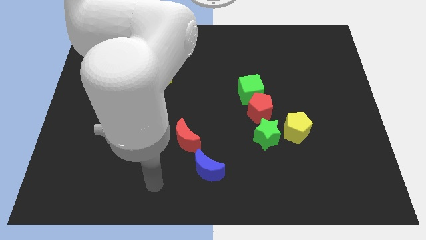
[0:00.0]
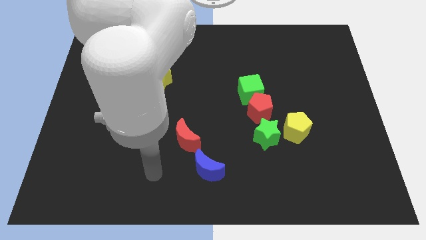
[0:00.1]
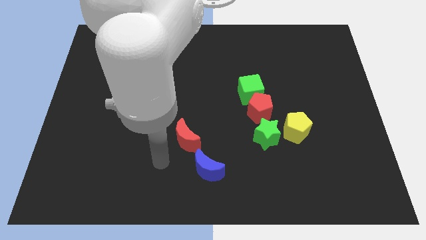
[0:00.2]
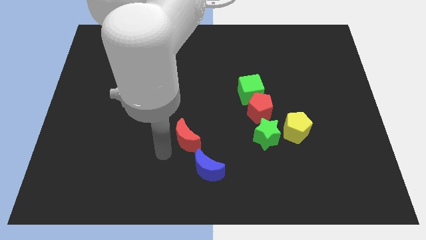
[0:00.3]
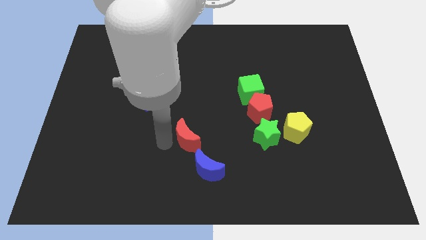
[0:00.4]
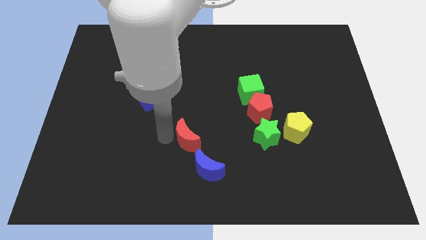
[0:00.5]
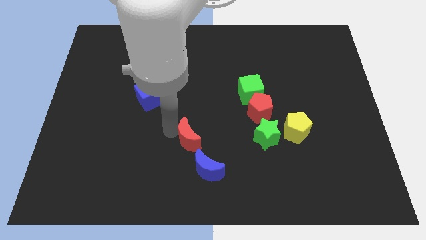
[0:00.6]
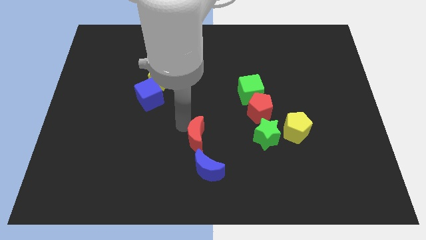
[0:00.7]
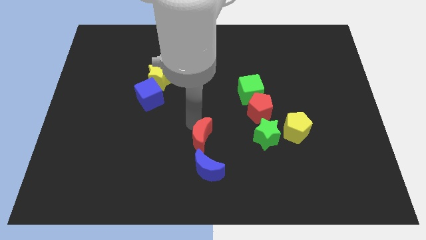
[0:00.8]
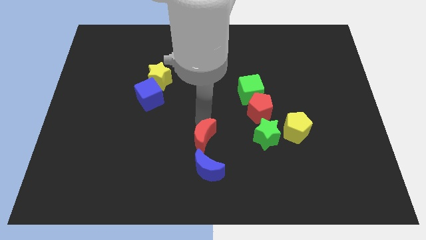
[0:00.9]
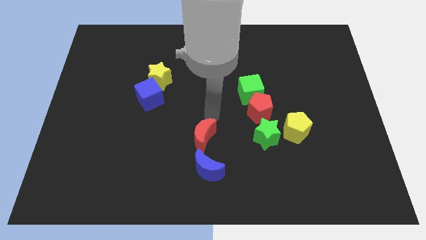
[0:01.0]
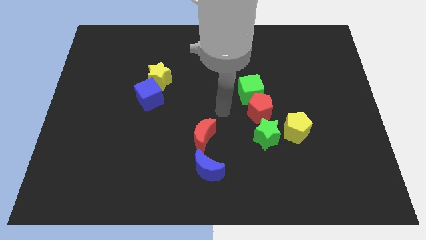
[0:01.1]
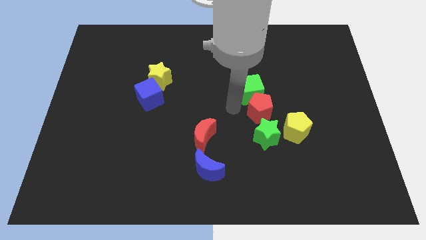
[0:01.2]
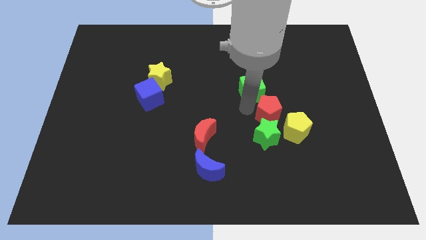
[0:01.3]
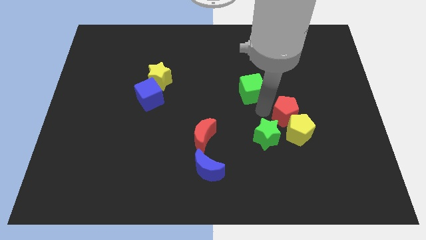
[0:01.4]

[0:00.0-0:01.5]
separate the green cube from the red pentagon

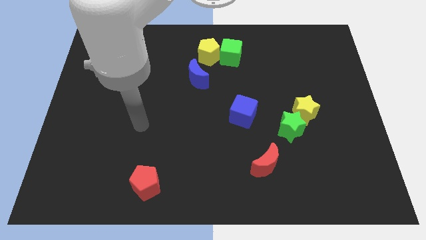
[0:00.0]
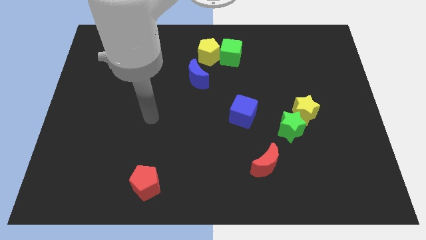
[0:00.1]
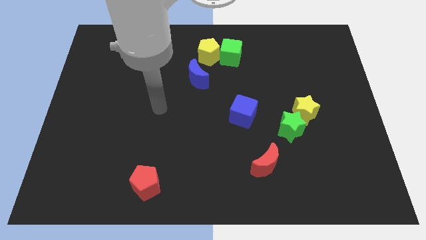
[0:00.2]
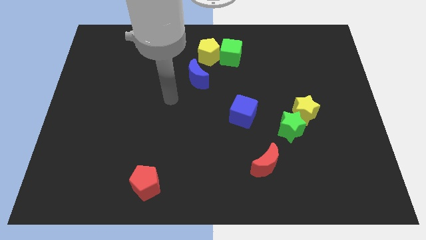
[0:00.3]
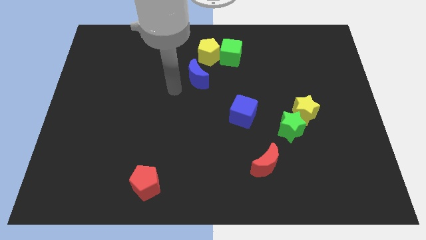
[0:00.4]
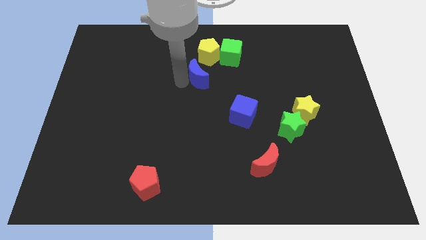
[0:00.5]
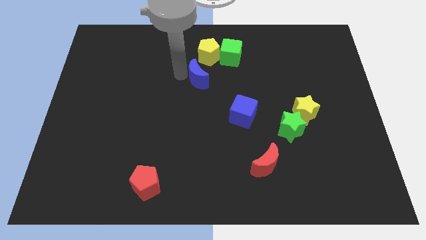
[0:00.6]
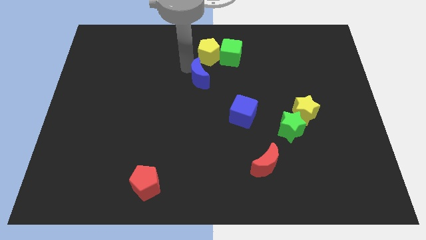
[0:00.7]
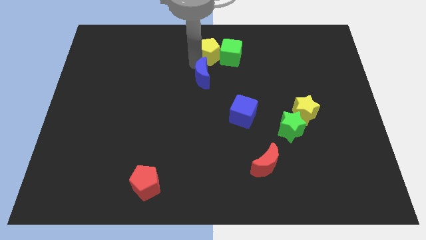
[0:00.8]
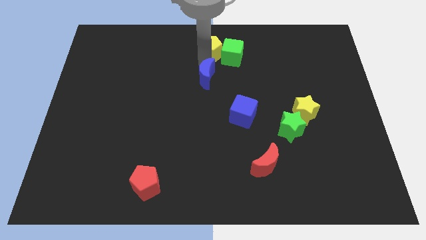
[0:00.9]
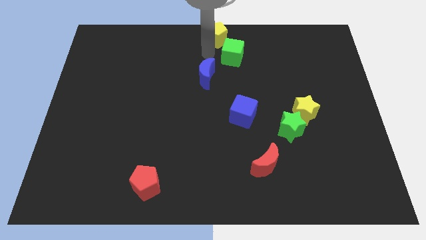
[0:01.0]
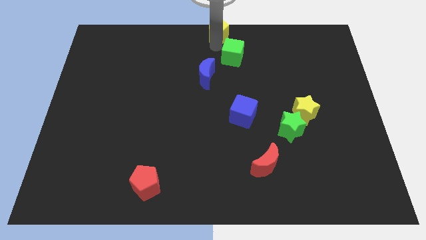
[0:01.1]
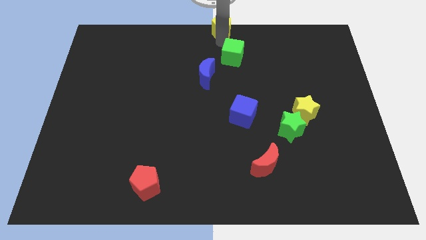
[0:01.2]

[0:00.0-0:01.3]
pull the green cube apart from the yellow pentagon

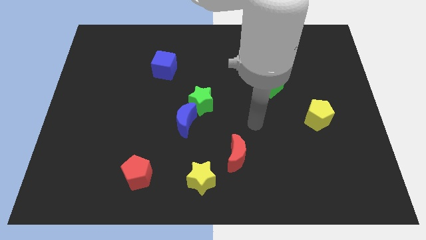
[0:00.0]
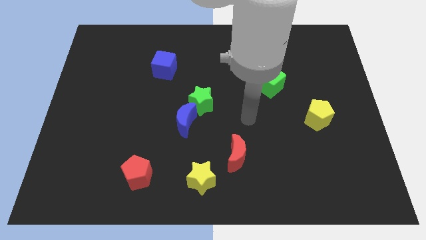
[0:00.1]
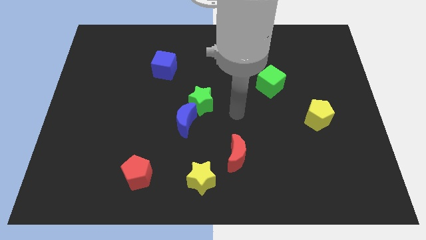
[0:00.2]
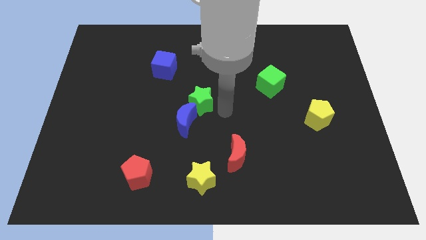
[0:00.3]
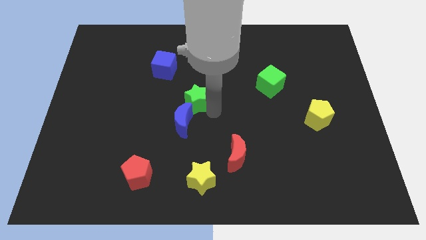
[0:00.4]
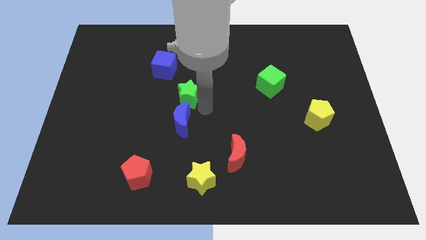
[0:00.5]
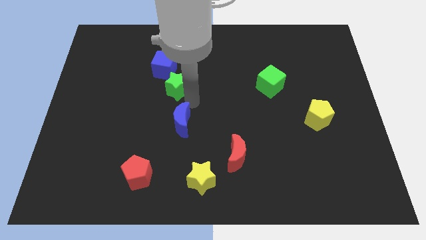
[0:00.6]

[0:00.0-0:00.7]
move the blue moon away from the green star

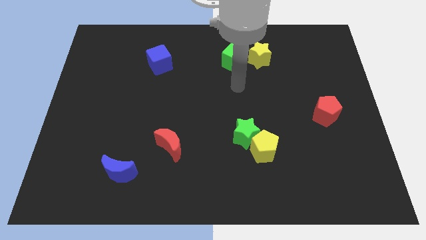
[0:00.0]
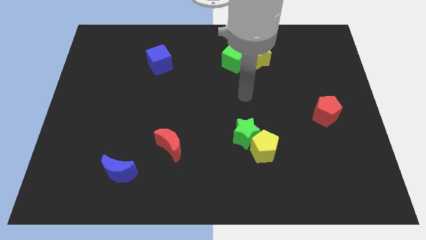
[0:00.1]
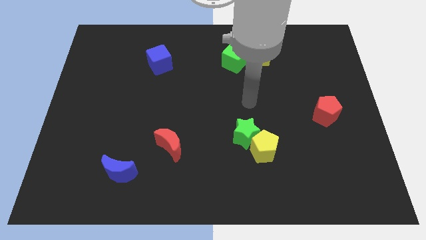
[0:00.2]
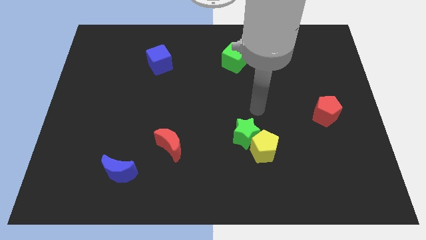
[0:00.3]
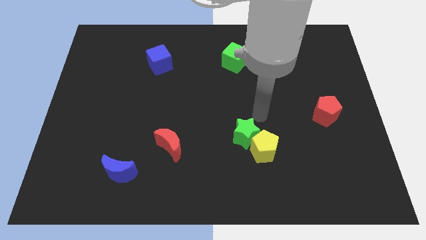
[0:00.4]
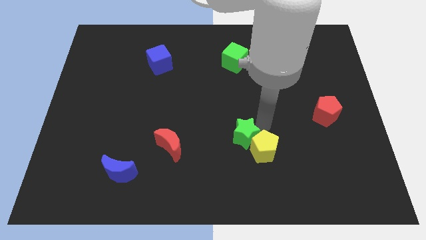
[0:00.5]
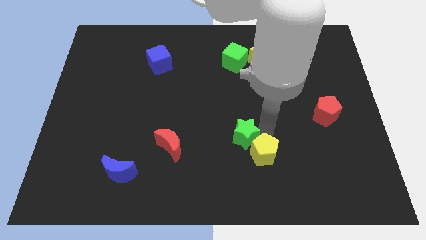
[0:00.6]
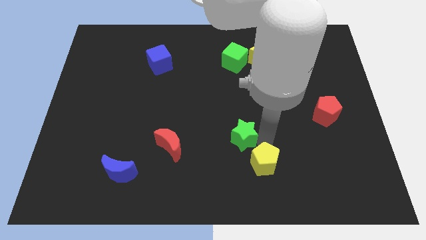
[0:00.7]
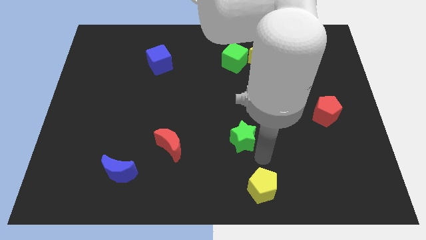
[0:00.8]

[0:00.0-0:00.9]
pull the green star apart from the yellow pentagon

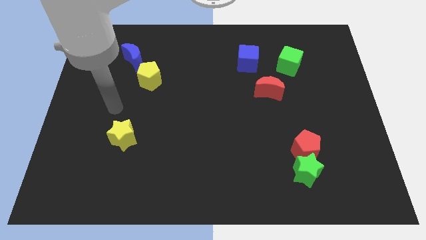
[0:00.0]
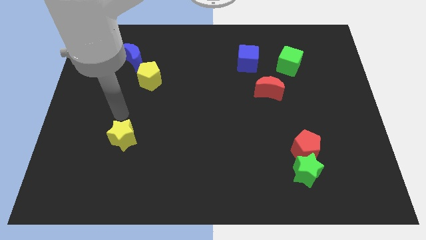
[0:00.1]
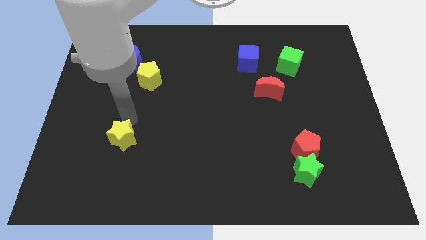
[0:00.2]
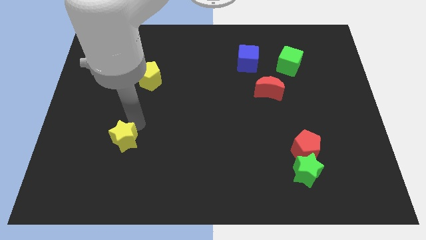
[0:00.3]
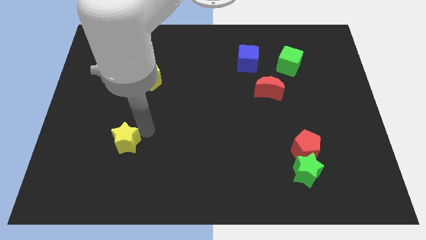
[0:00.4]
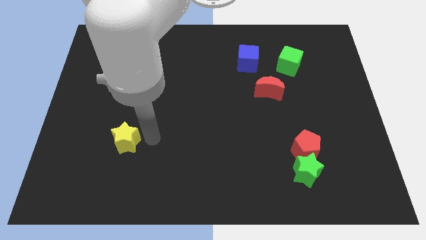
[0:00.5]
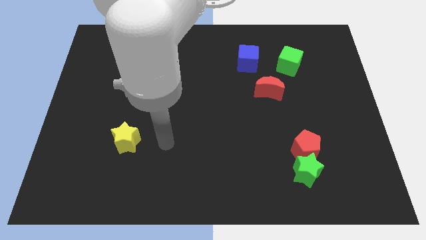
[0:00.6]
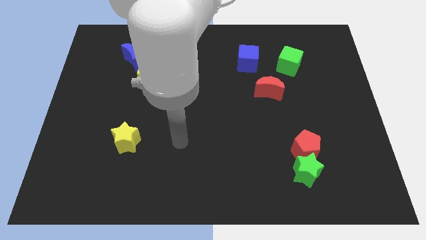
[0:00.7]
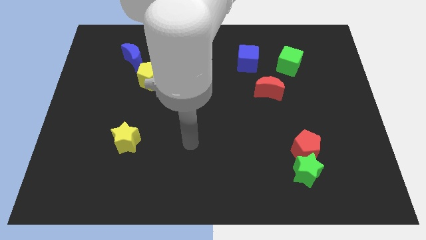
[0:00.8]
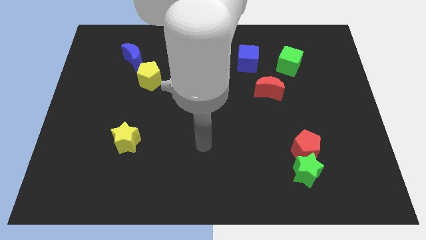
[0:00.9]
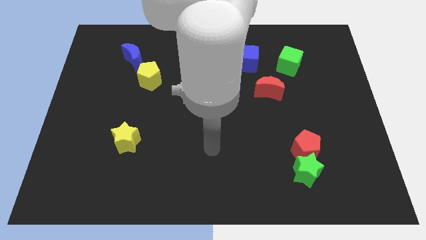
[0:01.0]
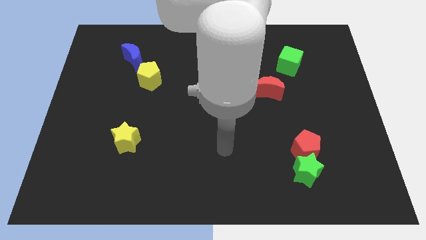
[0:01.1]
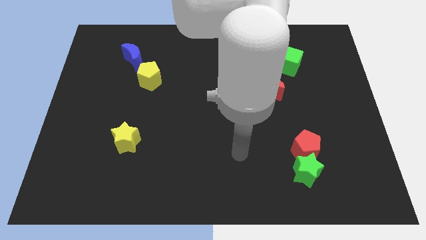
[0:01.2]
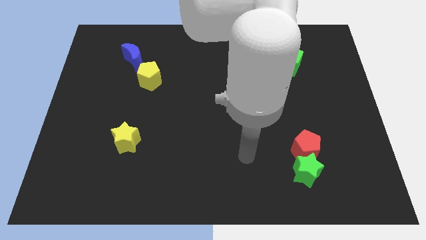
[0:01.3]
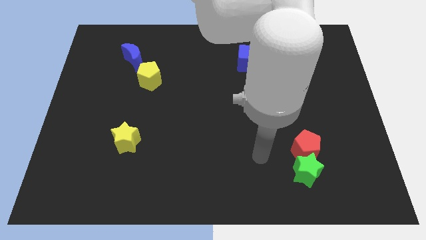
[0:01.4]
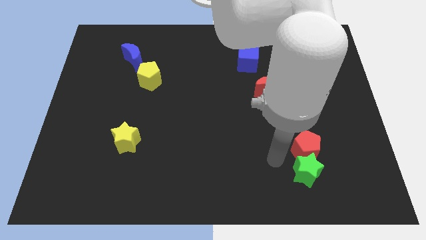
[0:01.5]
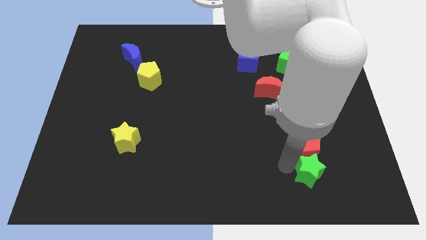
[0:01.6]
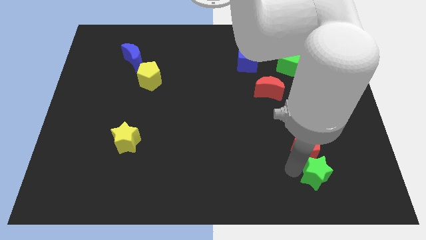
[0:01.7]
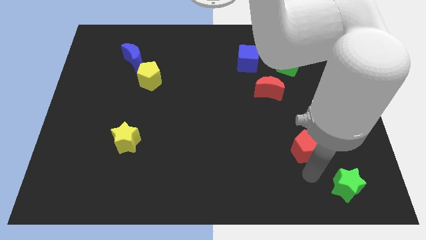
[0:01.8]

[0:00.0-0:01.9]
separate the red pentagon from the green star

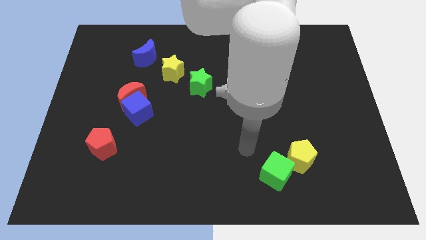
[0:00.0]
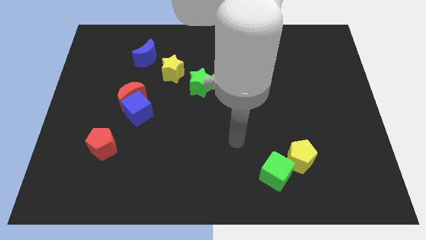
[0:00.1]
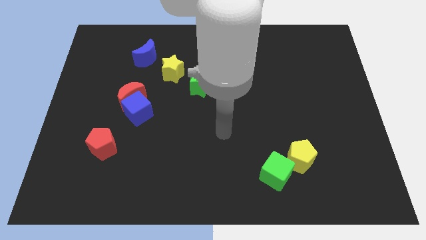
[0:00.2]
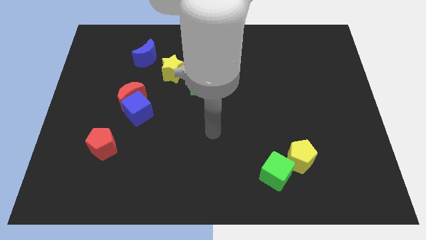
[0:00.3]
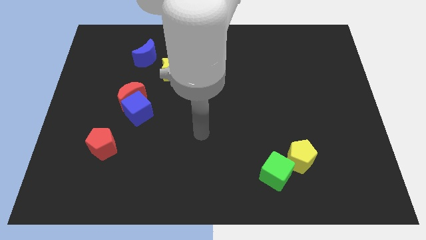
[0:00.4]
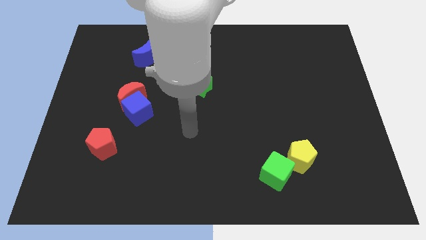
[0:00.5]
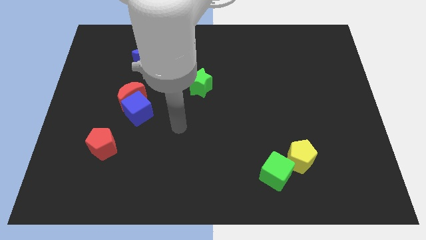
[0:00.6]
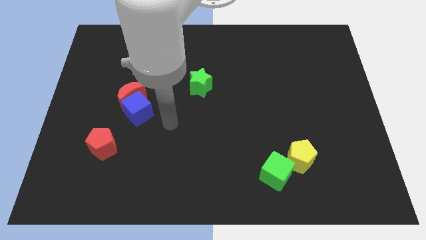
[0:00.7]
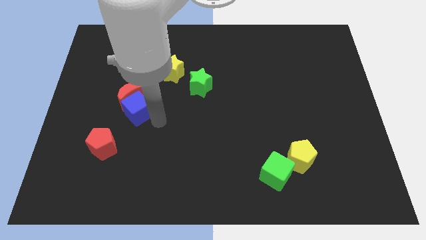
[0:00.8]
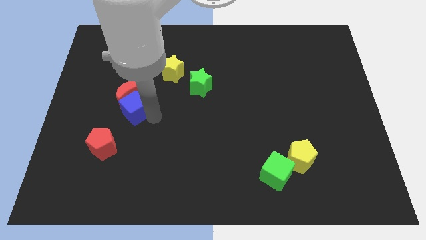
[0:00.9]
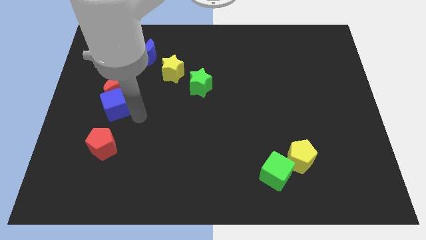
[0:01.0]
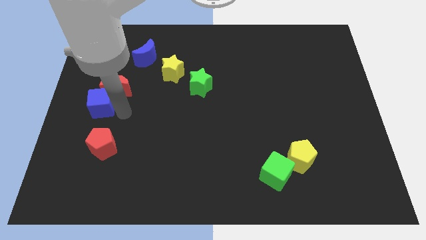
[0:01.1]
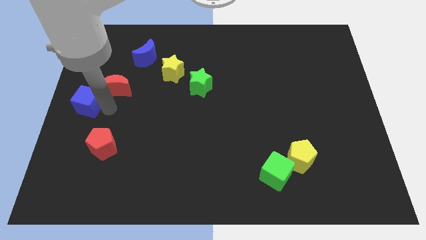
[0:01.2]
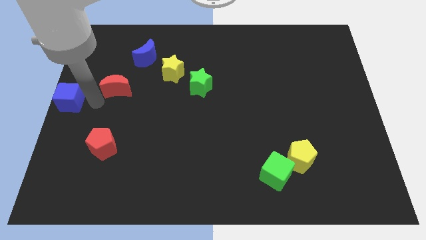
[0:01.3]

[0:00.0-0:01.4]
separate the red moon from the blue cube

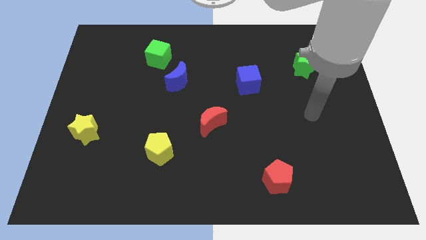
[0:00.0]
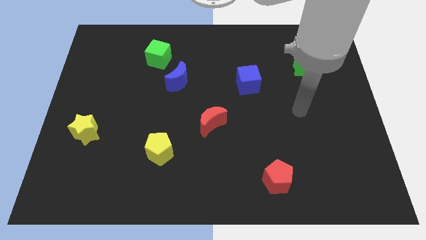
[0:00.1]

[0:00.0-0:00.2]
move the blue moon away from the green cube

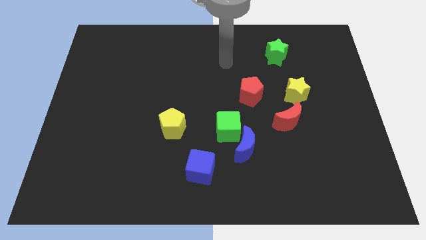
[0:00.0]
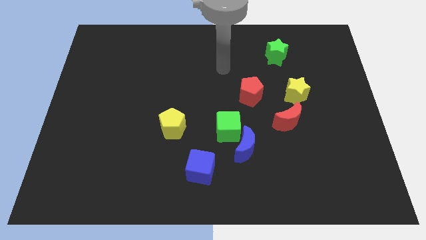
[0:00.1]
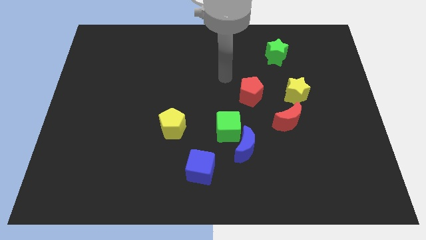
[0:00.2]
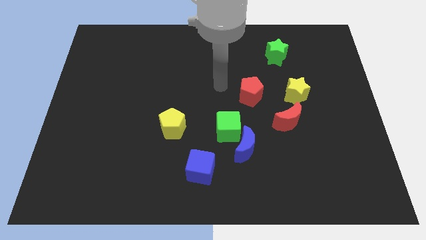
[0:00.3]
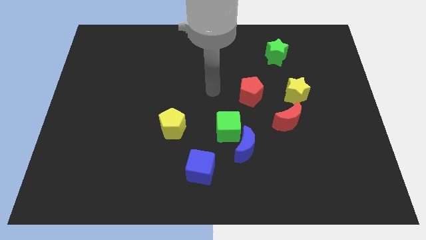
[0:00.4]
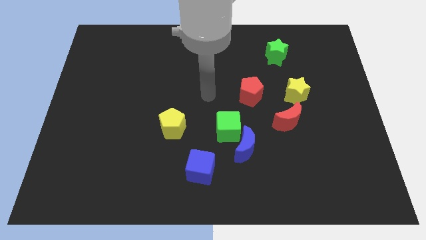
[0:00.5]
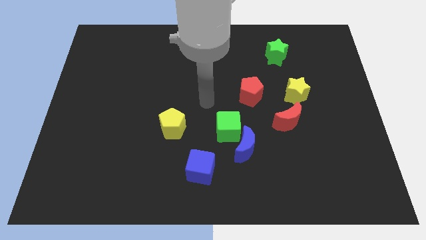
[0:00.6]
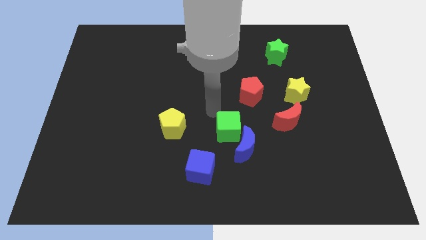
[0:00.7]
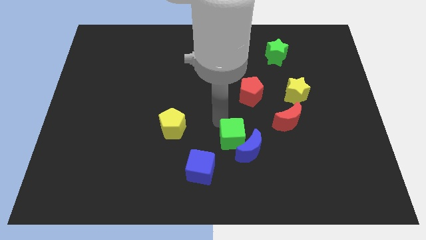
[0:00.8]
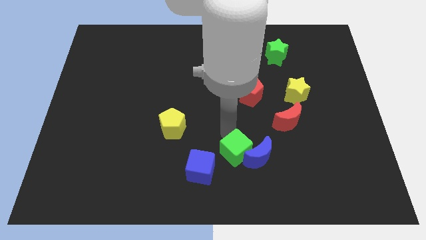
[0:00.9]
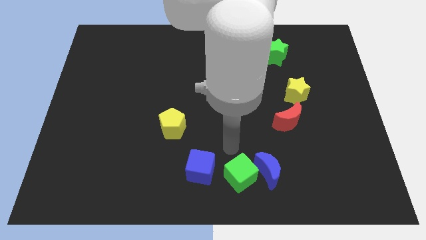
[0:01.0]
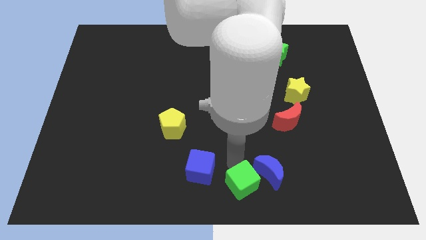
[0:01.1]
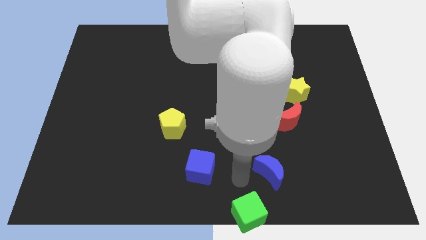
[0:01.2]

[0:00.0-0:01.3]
separate the blue moon from the green cube

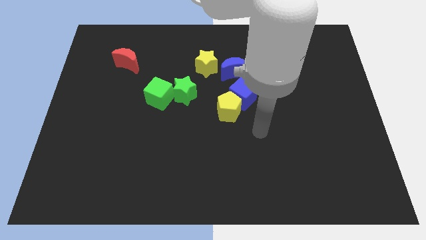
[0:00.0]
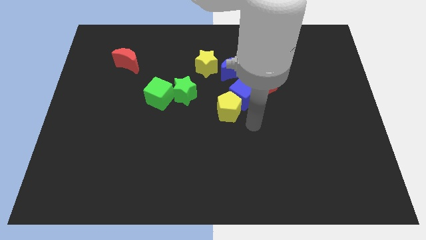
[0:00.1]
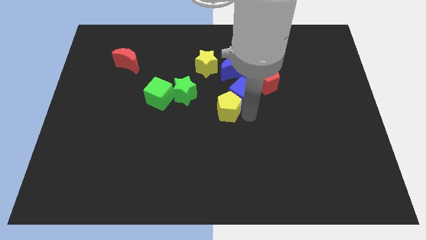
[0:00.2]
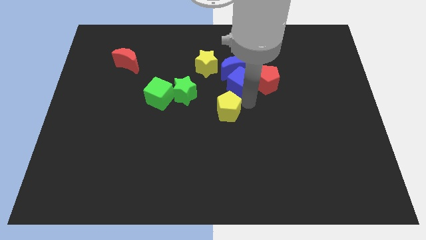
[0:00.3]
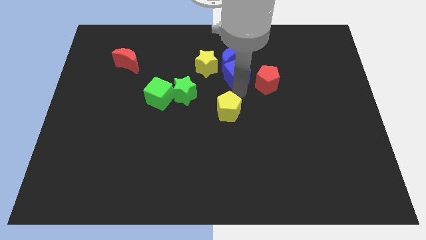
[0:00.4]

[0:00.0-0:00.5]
separate the yellow pentagon from the blue cube
